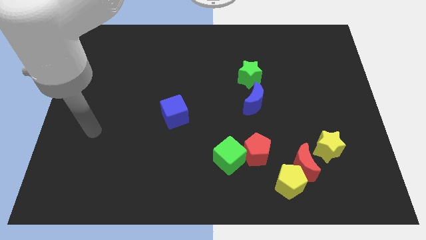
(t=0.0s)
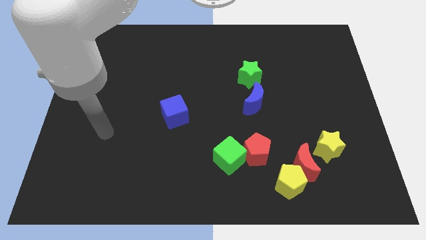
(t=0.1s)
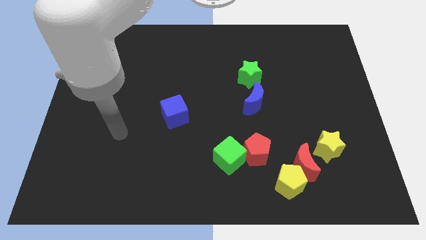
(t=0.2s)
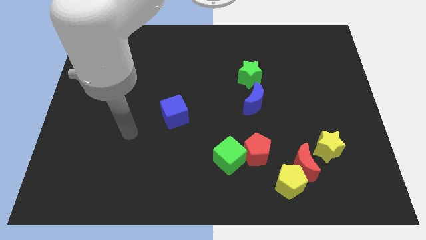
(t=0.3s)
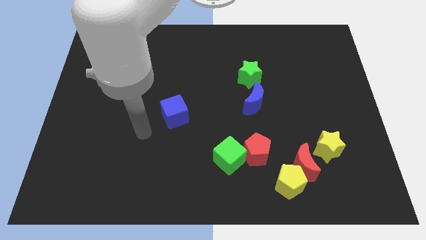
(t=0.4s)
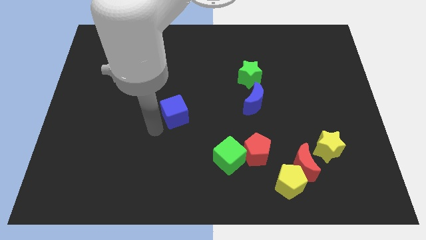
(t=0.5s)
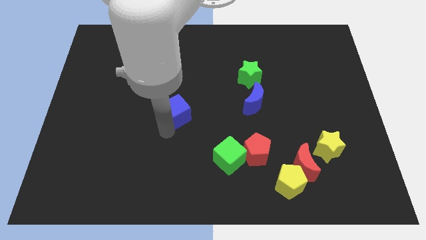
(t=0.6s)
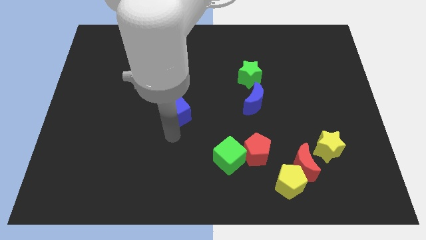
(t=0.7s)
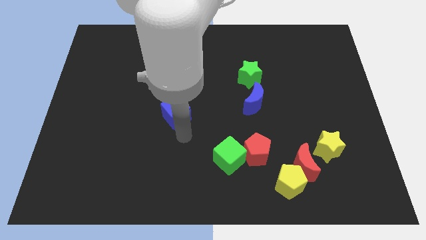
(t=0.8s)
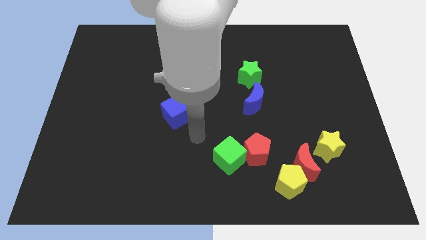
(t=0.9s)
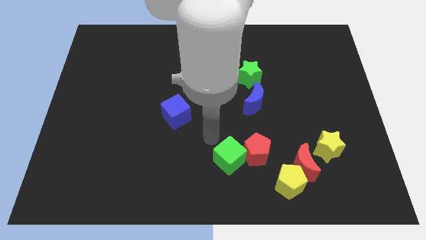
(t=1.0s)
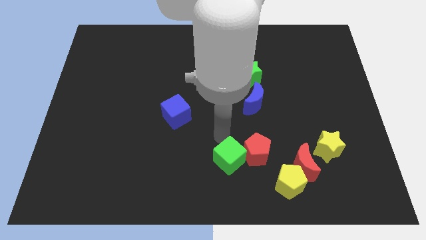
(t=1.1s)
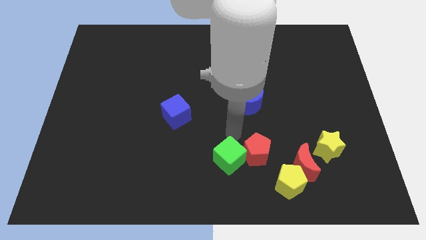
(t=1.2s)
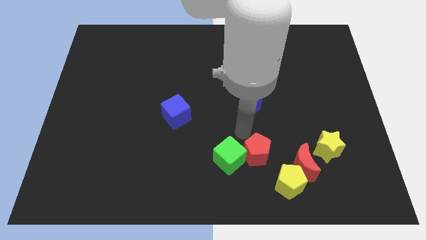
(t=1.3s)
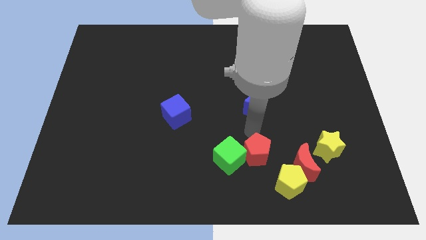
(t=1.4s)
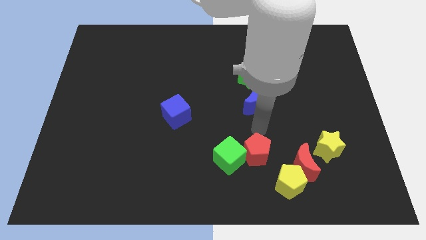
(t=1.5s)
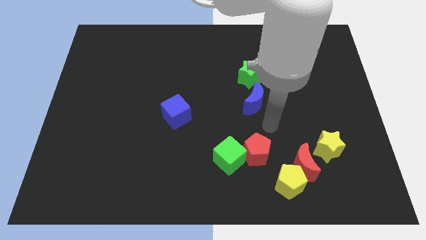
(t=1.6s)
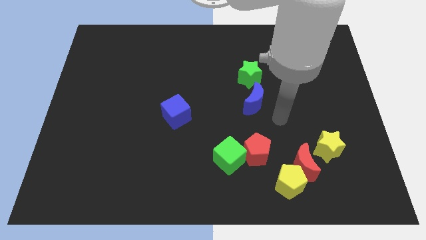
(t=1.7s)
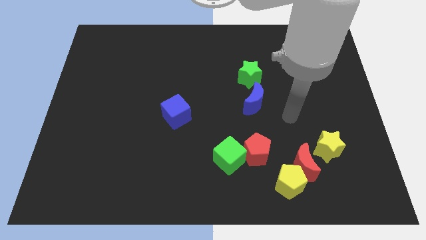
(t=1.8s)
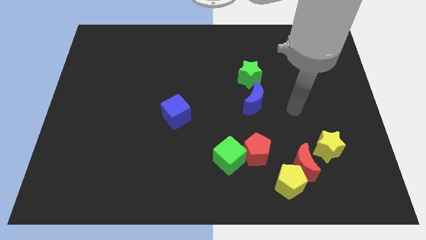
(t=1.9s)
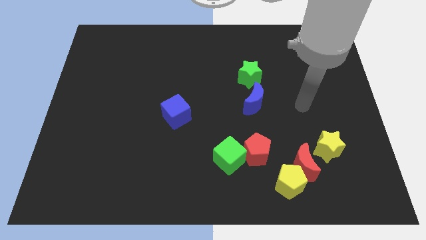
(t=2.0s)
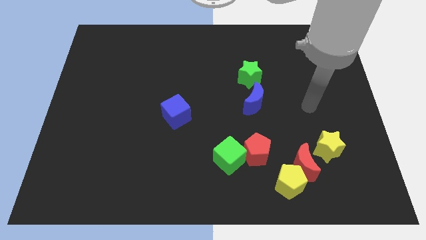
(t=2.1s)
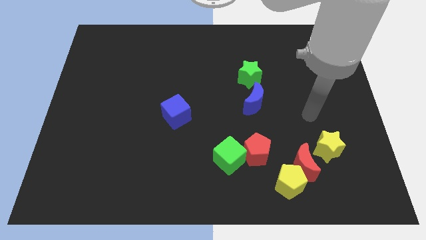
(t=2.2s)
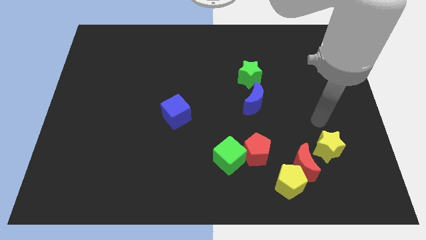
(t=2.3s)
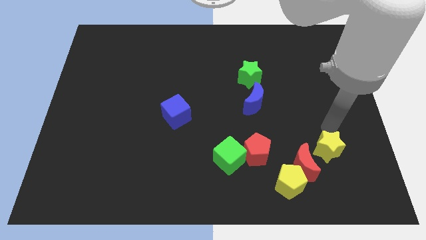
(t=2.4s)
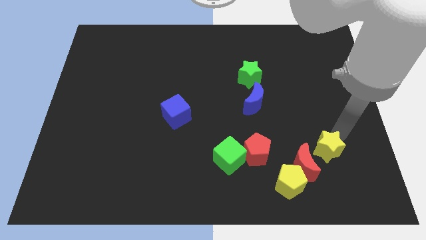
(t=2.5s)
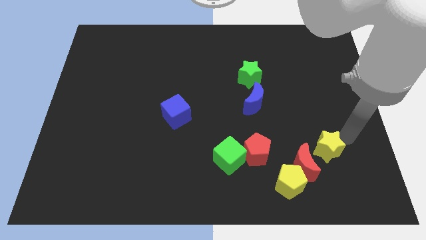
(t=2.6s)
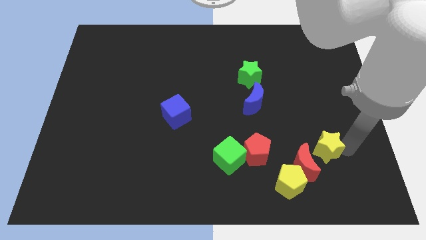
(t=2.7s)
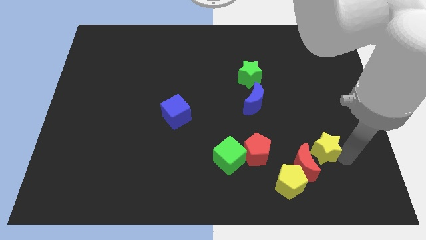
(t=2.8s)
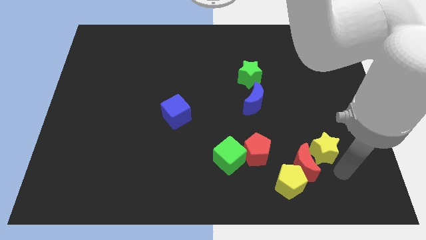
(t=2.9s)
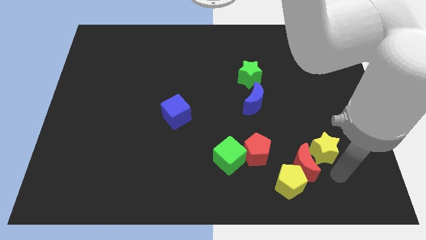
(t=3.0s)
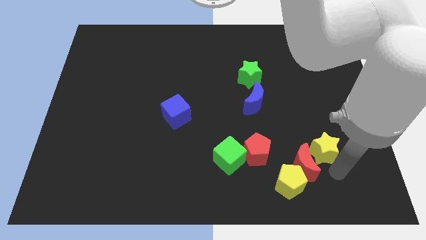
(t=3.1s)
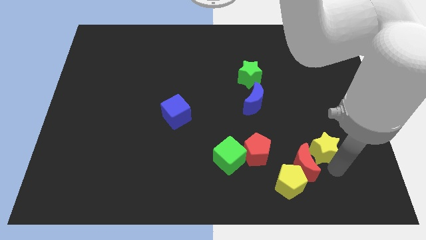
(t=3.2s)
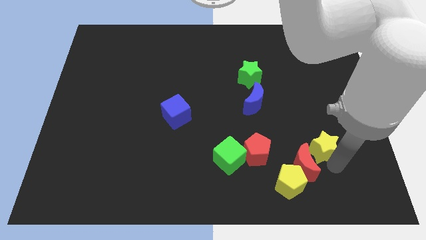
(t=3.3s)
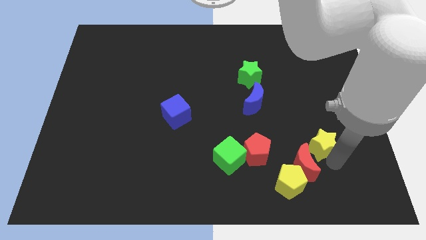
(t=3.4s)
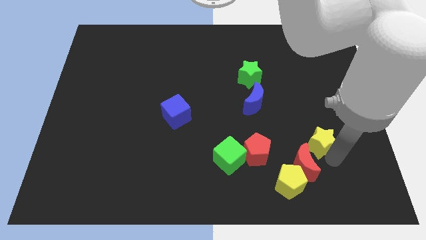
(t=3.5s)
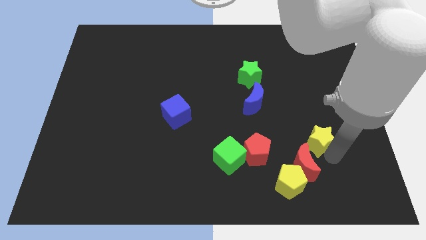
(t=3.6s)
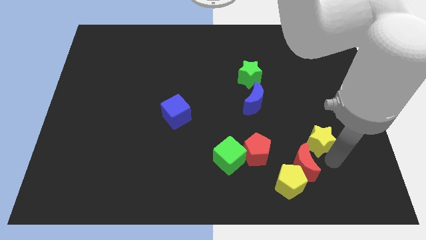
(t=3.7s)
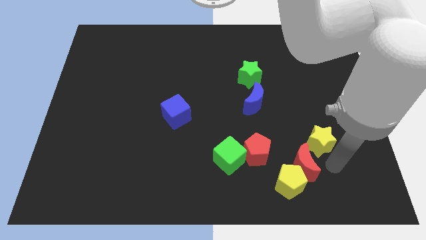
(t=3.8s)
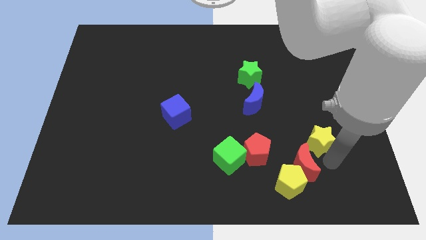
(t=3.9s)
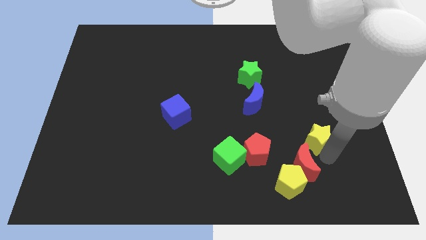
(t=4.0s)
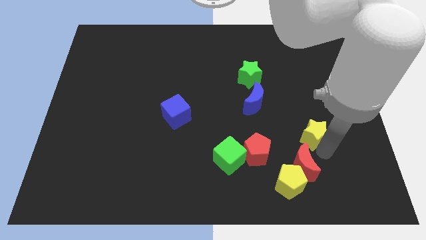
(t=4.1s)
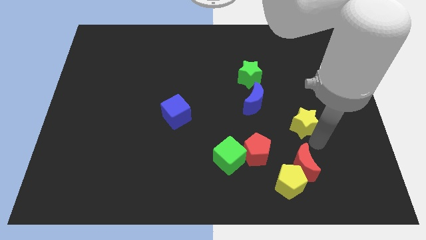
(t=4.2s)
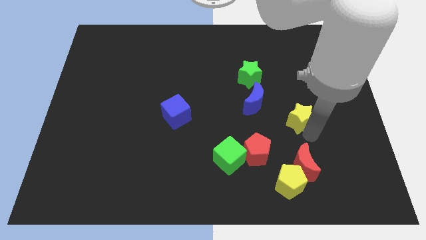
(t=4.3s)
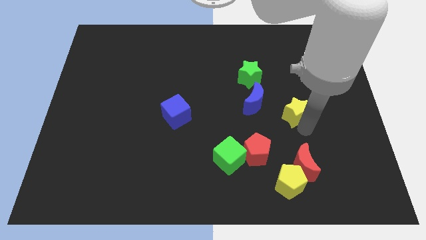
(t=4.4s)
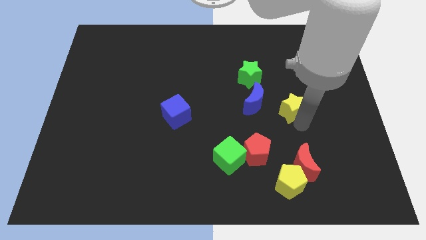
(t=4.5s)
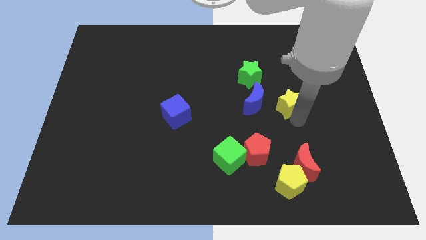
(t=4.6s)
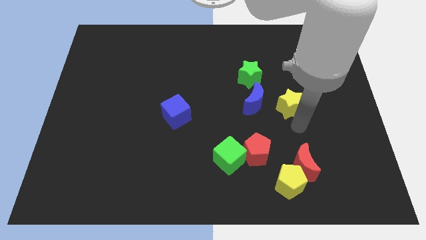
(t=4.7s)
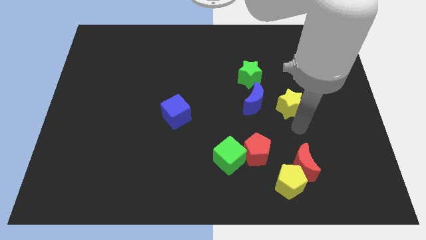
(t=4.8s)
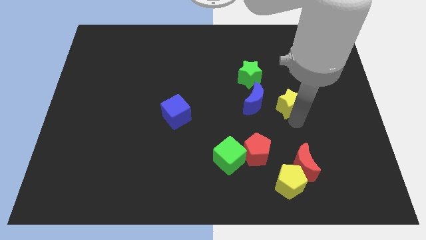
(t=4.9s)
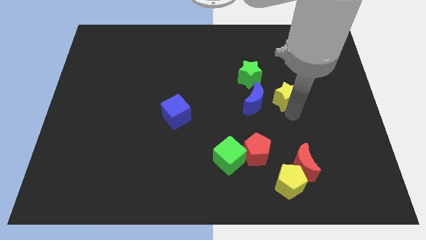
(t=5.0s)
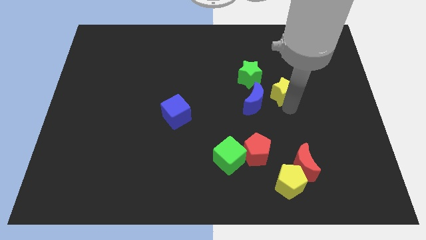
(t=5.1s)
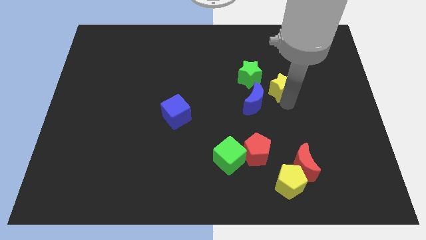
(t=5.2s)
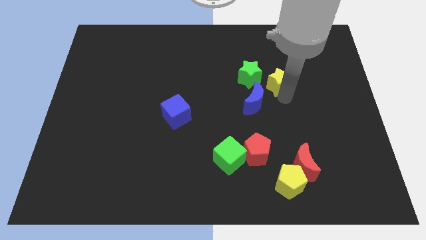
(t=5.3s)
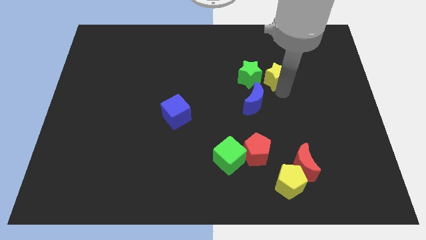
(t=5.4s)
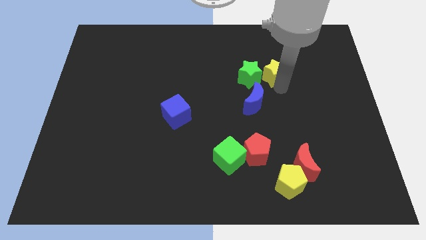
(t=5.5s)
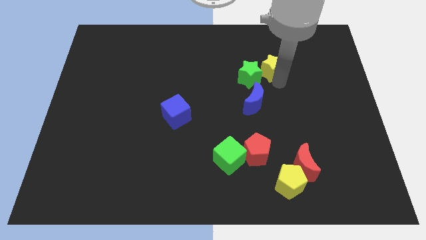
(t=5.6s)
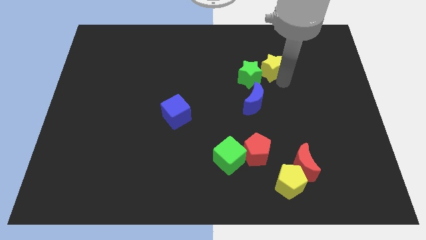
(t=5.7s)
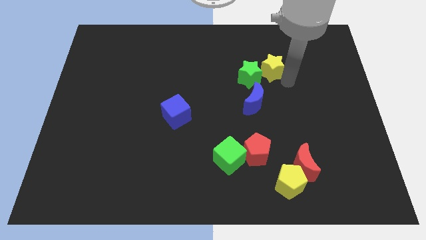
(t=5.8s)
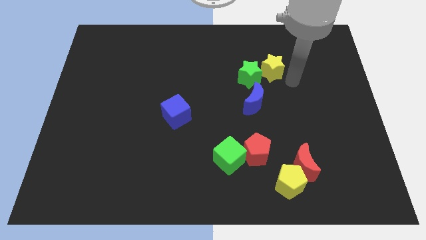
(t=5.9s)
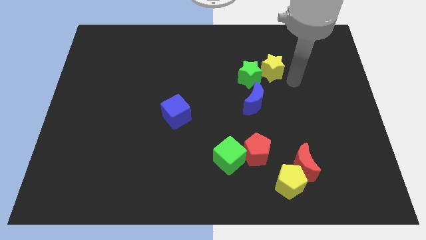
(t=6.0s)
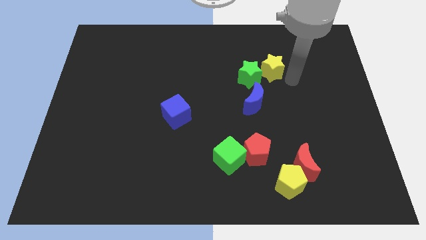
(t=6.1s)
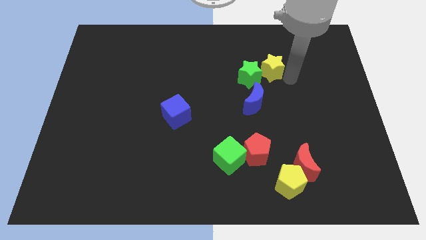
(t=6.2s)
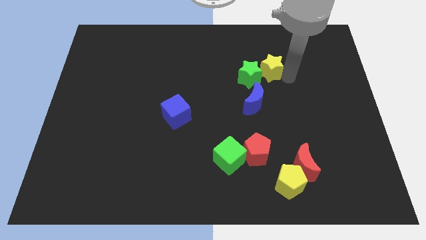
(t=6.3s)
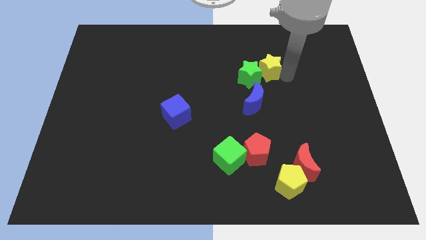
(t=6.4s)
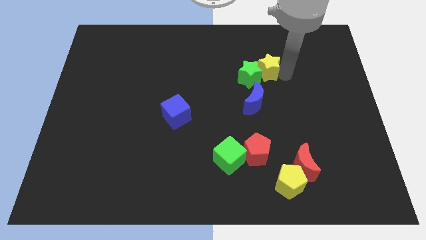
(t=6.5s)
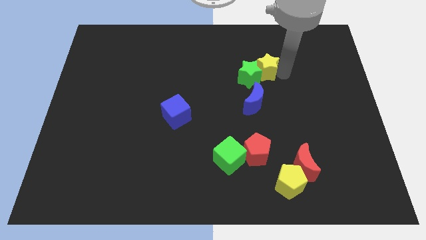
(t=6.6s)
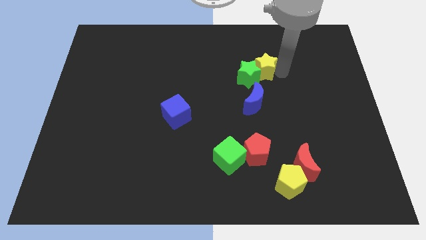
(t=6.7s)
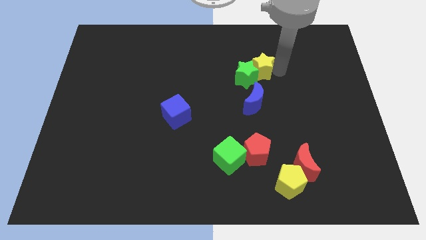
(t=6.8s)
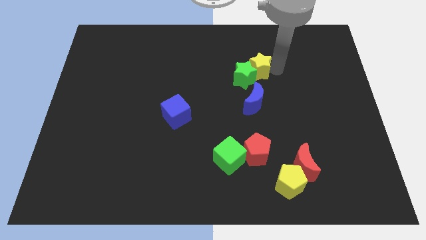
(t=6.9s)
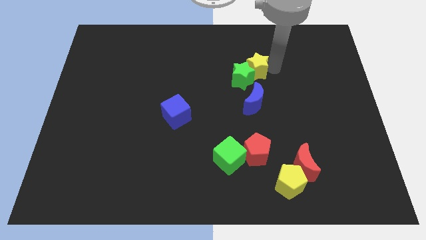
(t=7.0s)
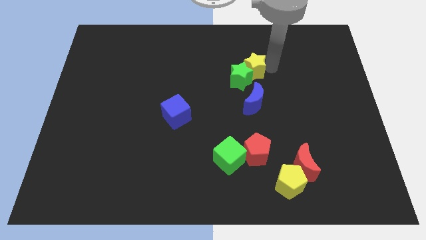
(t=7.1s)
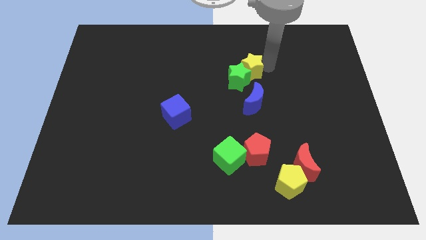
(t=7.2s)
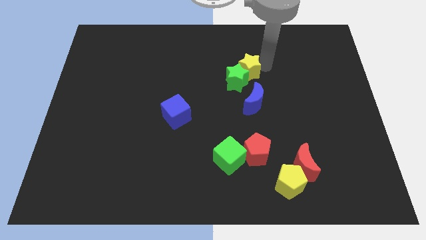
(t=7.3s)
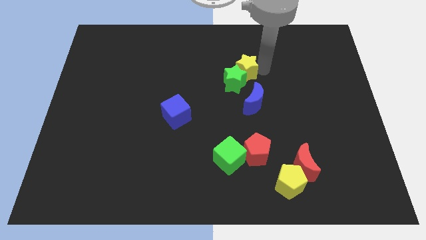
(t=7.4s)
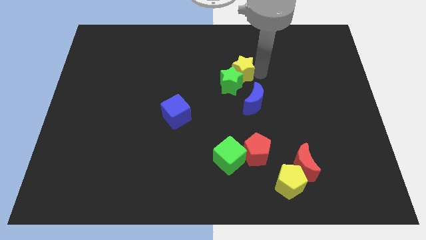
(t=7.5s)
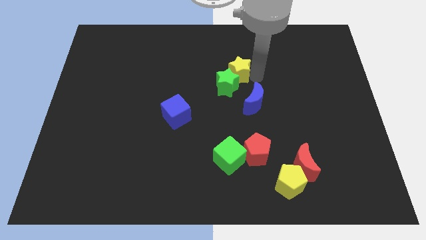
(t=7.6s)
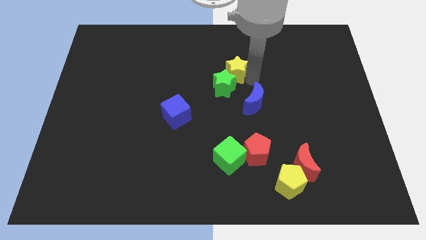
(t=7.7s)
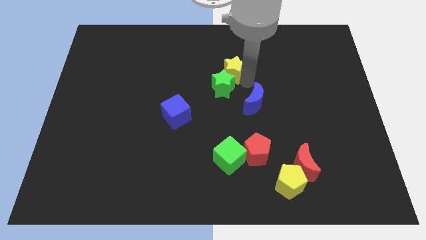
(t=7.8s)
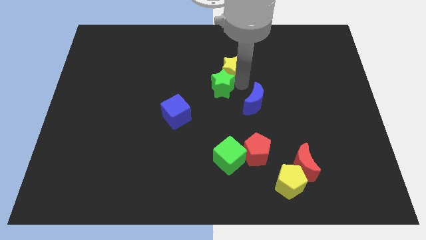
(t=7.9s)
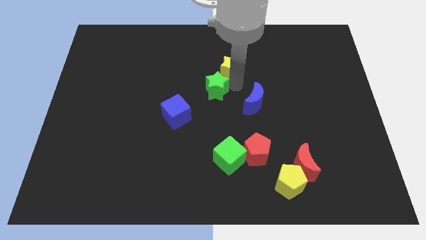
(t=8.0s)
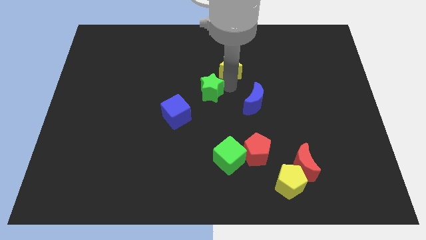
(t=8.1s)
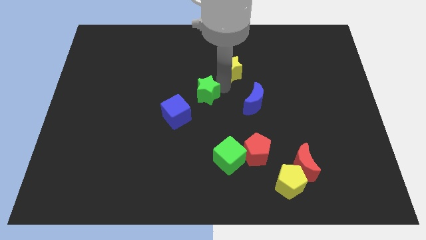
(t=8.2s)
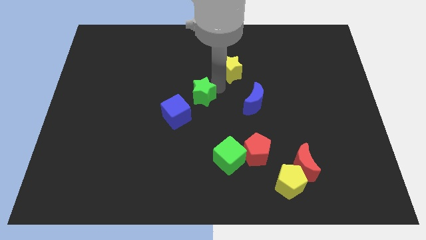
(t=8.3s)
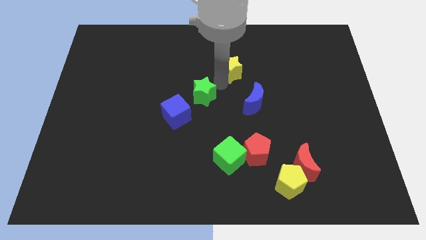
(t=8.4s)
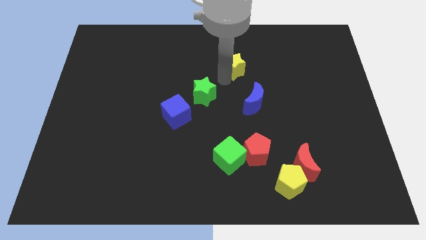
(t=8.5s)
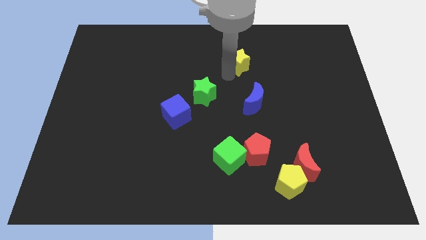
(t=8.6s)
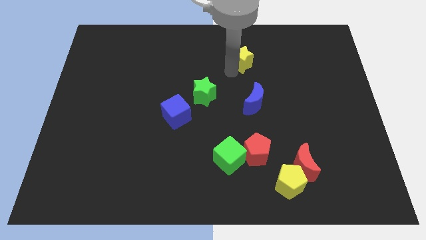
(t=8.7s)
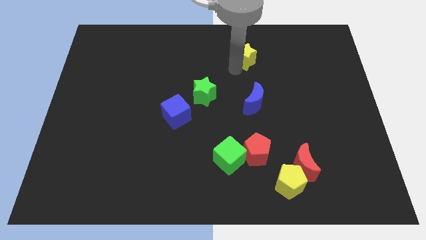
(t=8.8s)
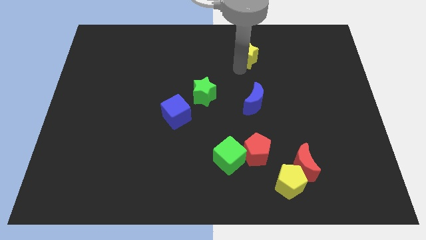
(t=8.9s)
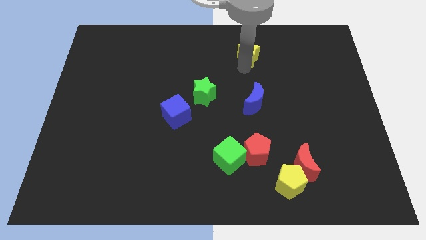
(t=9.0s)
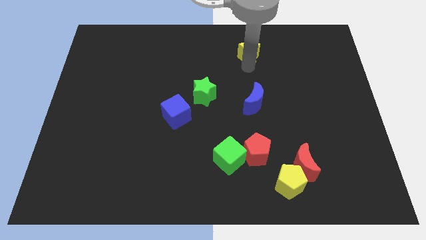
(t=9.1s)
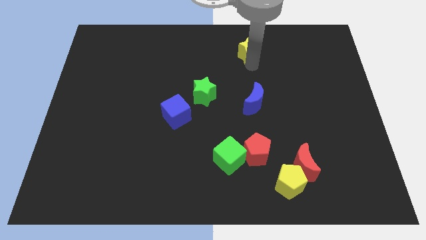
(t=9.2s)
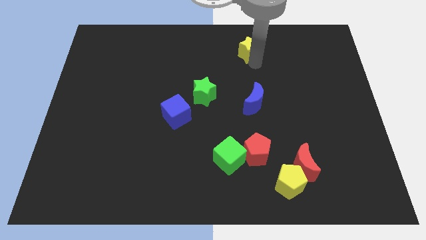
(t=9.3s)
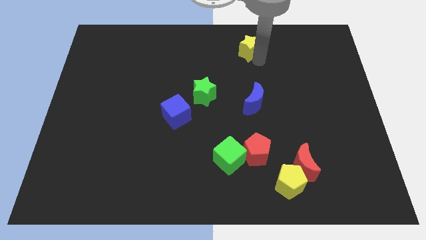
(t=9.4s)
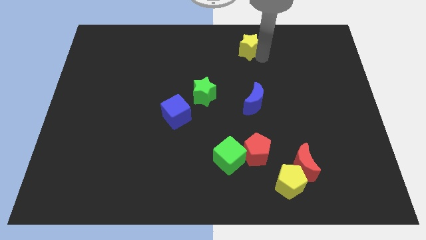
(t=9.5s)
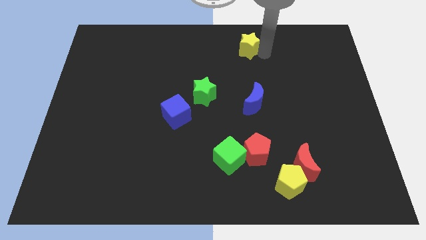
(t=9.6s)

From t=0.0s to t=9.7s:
push the yellow star to the top
